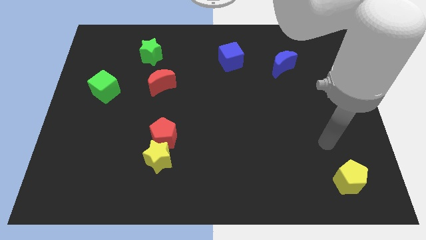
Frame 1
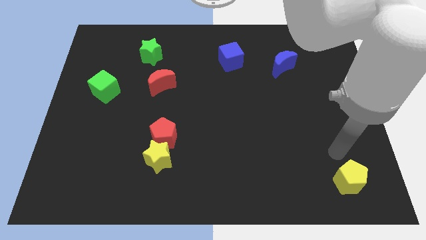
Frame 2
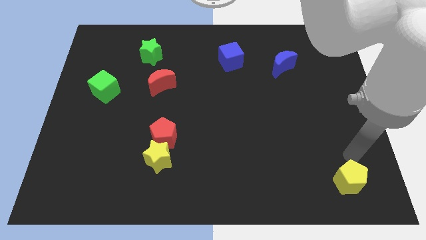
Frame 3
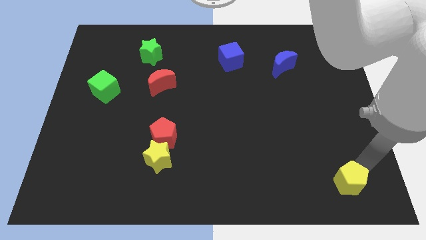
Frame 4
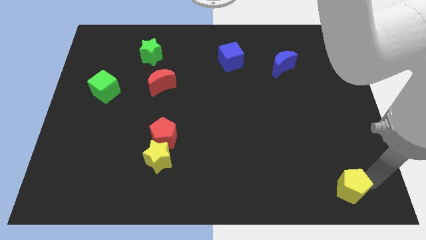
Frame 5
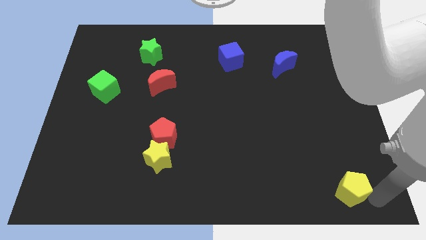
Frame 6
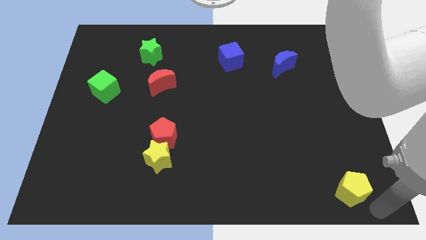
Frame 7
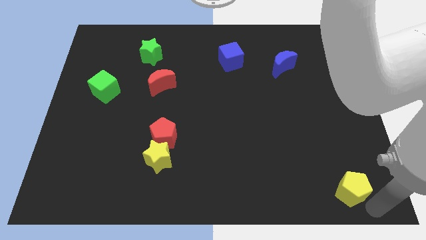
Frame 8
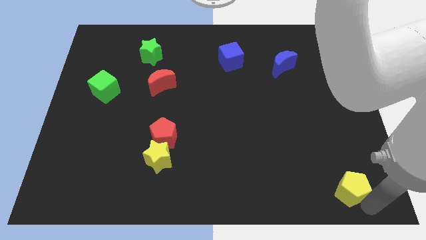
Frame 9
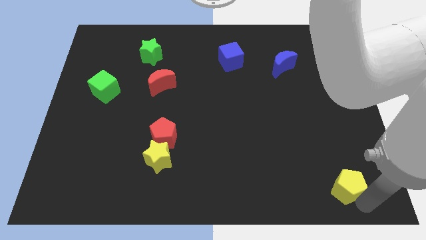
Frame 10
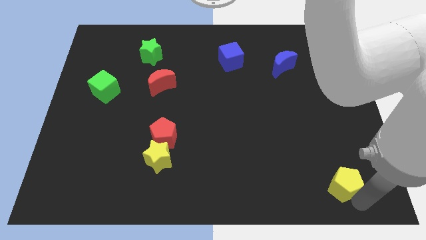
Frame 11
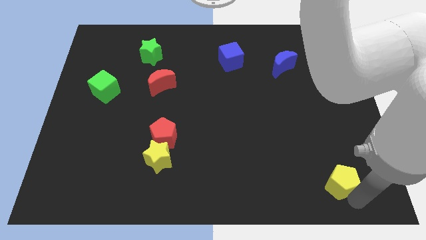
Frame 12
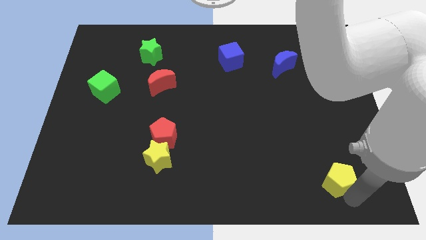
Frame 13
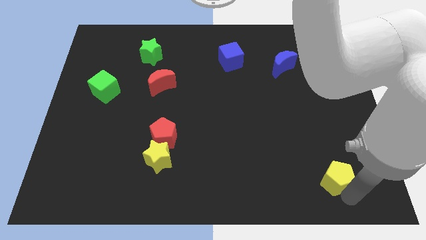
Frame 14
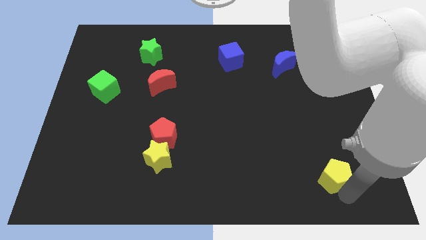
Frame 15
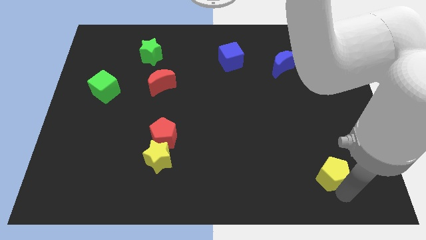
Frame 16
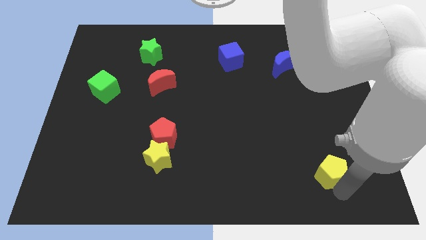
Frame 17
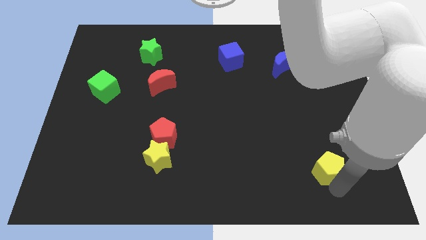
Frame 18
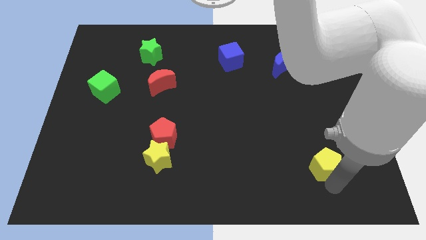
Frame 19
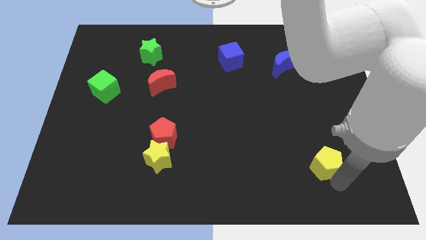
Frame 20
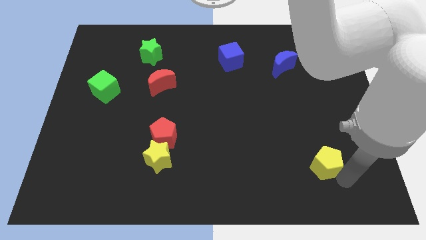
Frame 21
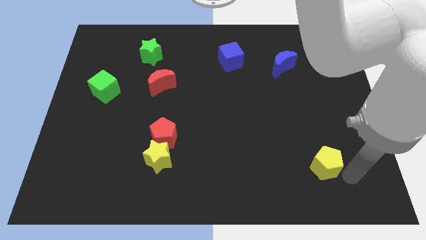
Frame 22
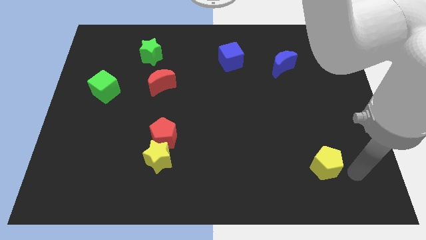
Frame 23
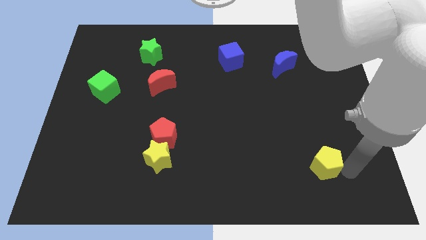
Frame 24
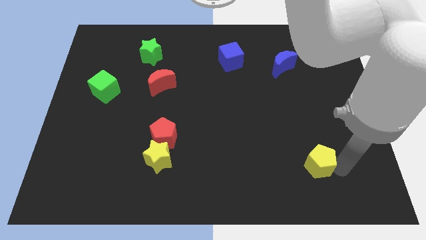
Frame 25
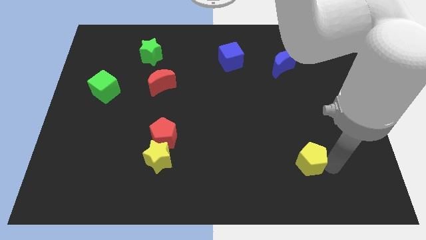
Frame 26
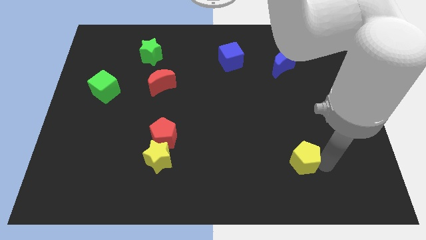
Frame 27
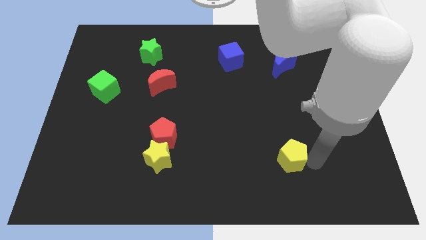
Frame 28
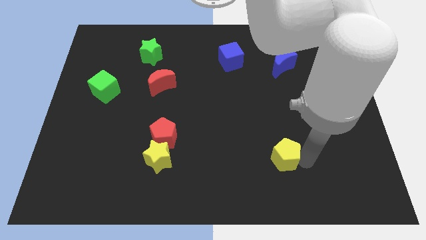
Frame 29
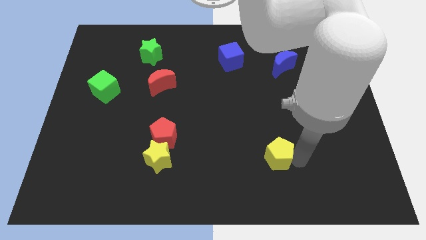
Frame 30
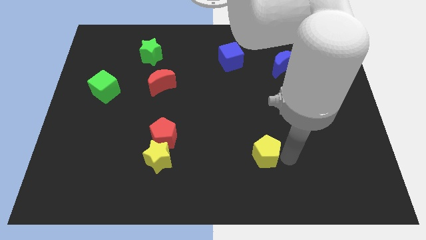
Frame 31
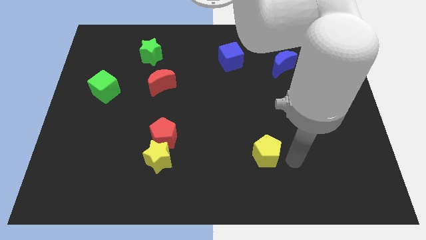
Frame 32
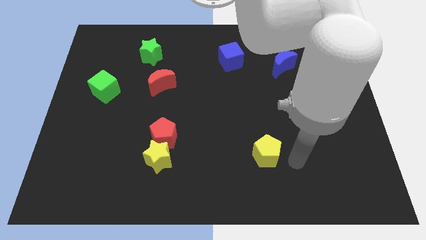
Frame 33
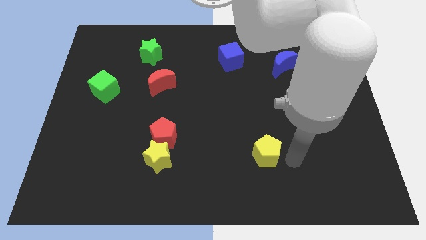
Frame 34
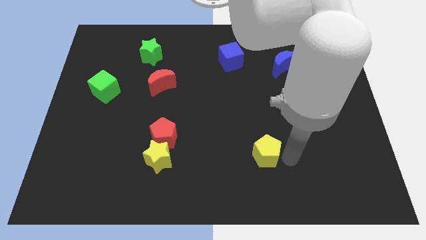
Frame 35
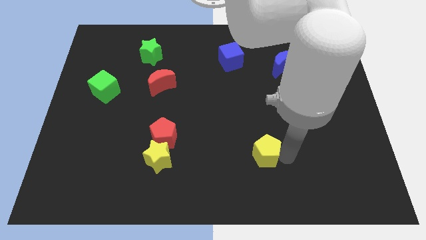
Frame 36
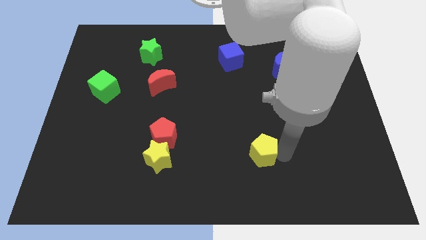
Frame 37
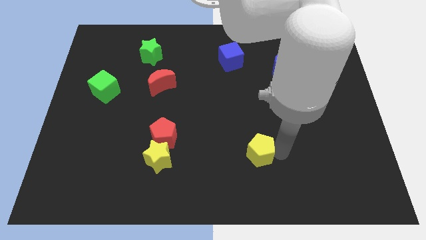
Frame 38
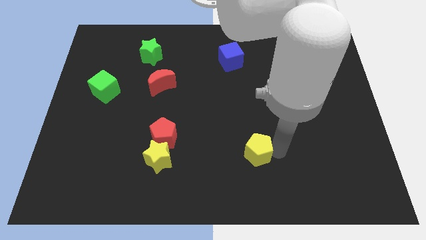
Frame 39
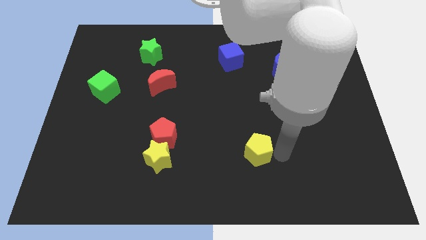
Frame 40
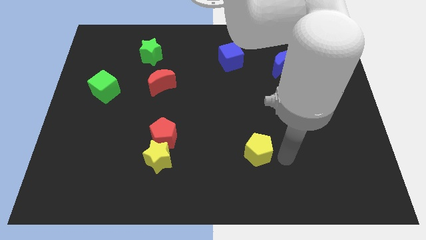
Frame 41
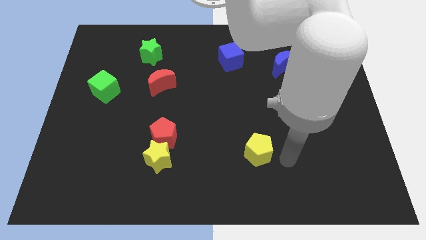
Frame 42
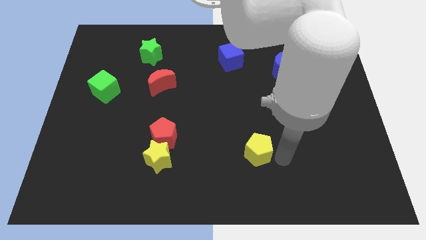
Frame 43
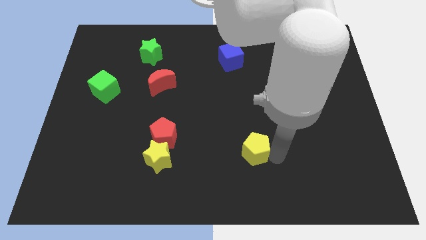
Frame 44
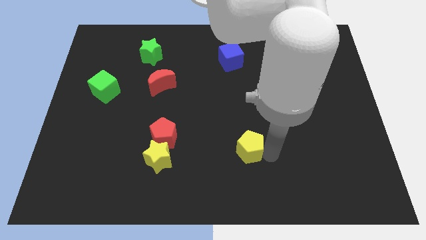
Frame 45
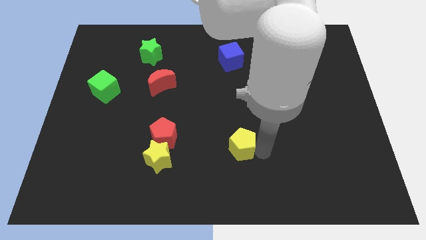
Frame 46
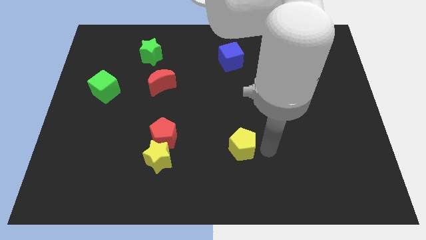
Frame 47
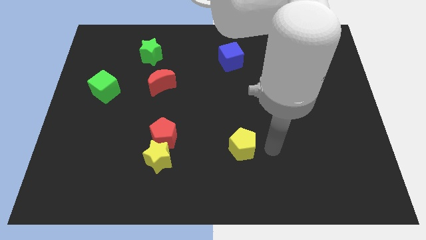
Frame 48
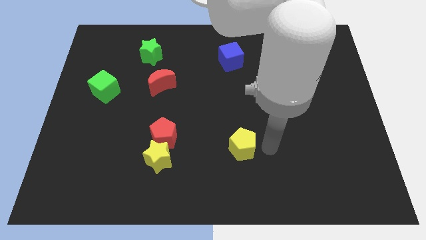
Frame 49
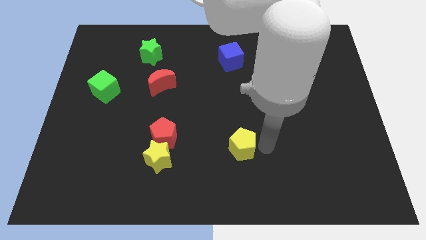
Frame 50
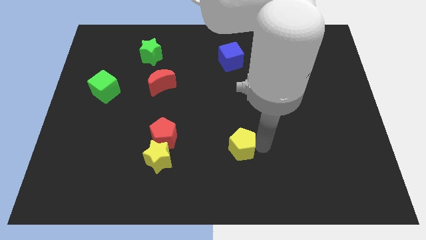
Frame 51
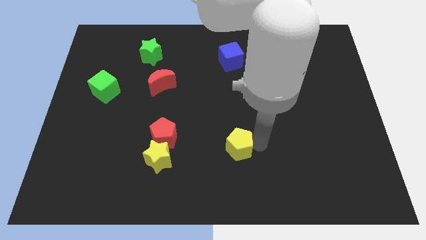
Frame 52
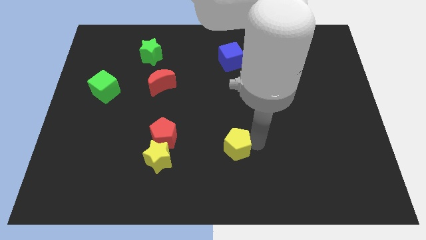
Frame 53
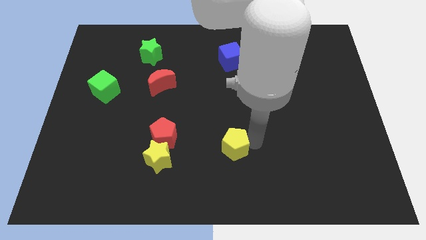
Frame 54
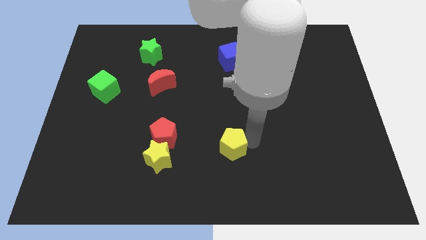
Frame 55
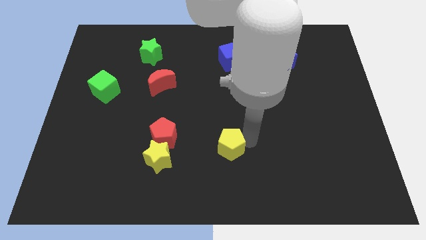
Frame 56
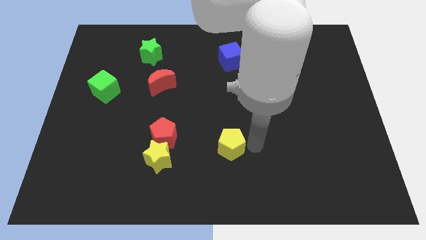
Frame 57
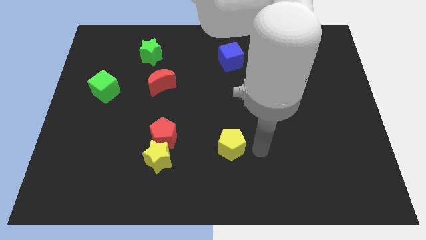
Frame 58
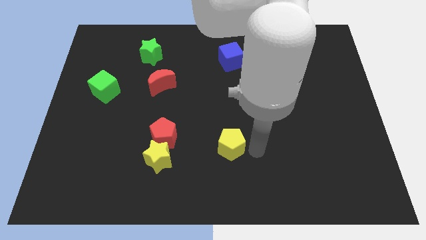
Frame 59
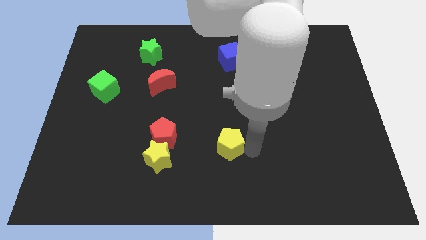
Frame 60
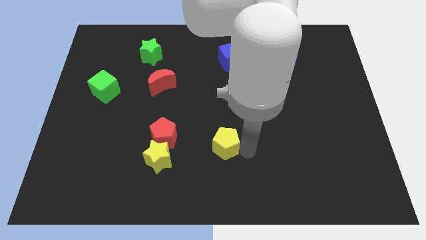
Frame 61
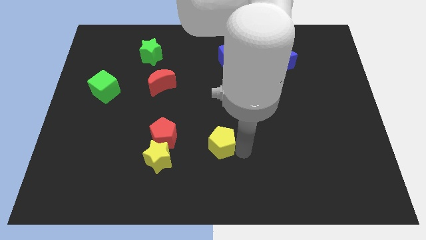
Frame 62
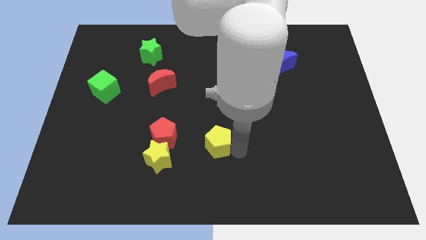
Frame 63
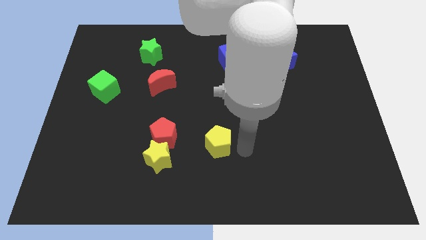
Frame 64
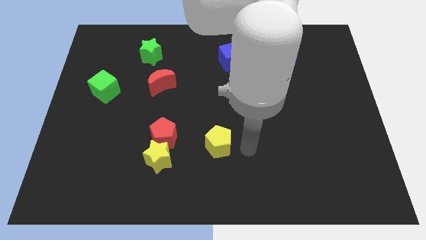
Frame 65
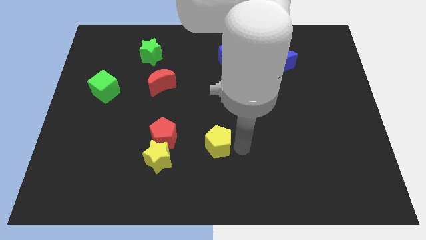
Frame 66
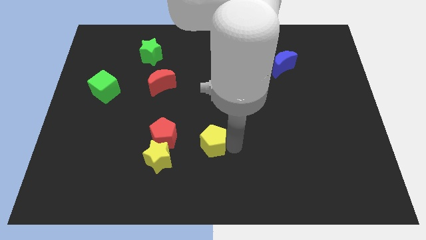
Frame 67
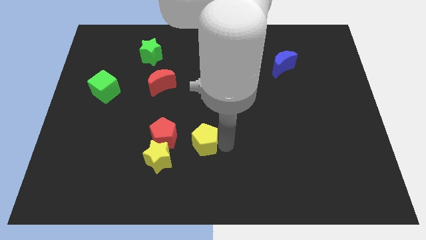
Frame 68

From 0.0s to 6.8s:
slide the yellow pentagon to the top right of the yellow star

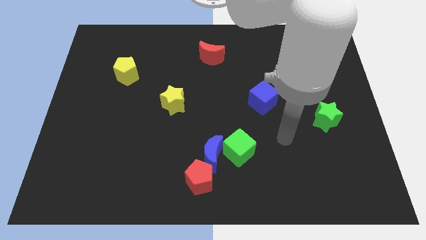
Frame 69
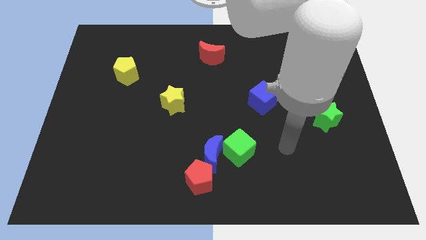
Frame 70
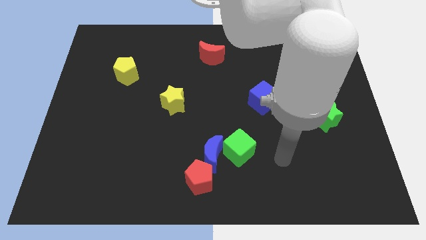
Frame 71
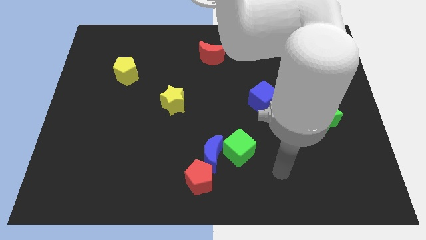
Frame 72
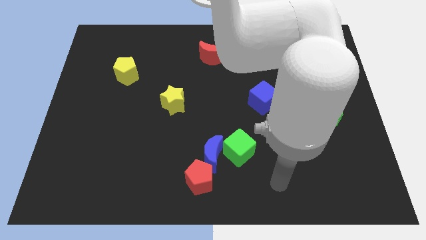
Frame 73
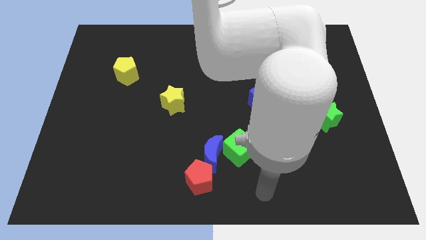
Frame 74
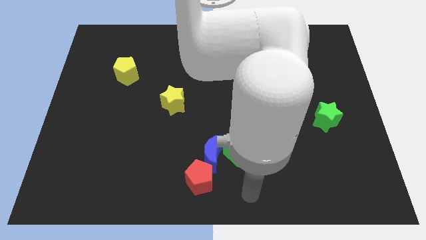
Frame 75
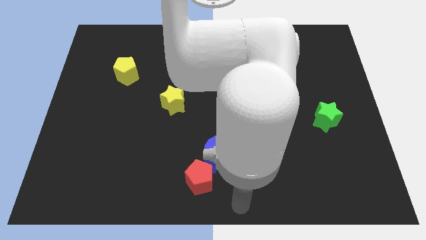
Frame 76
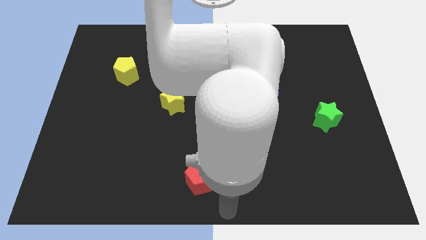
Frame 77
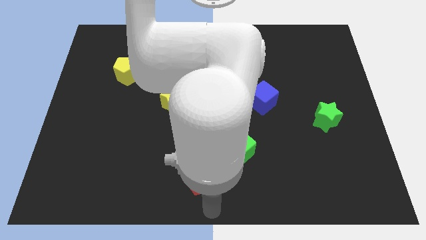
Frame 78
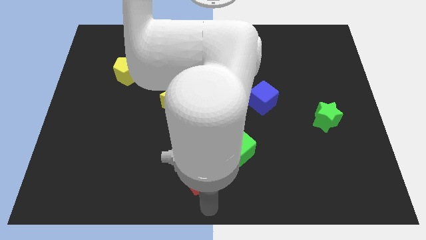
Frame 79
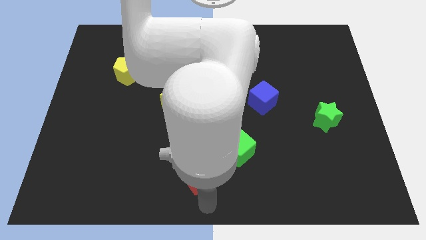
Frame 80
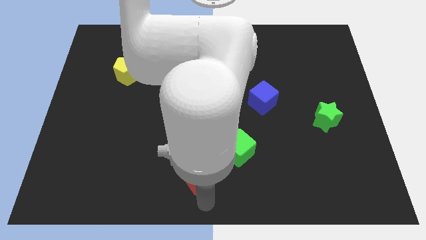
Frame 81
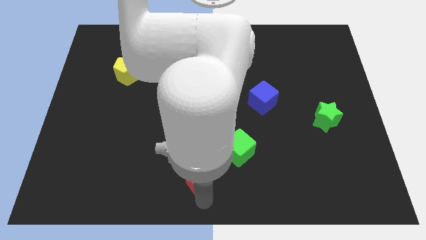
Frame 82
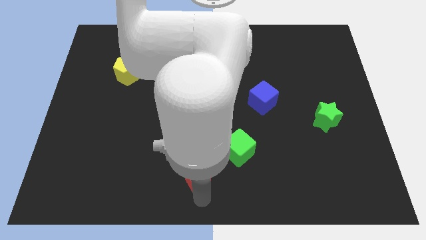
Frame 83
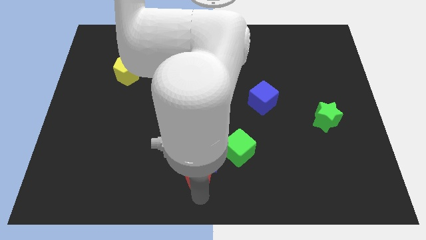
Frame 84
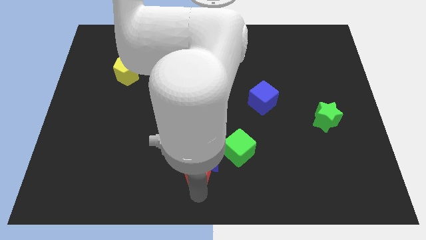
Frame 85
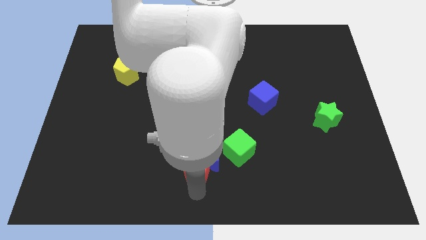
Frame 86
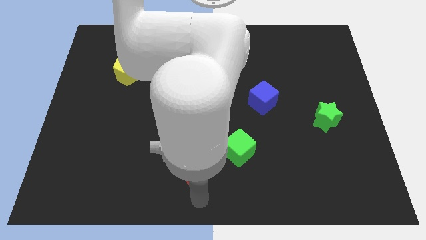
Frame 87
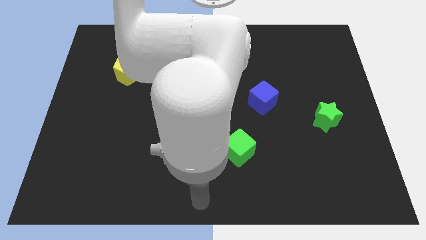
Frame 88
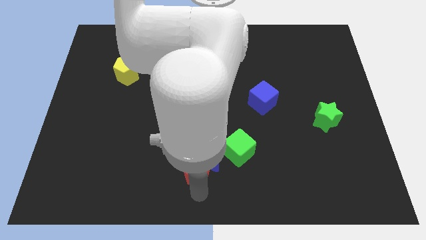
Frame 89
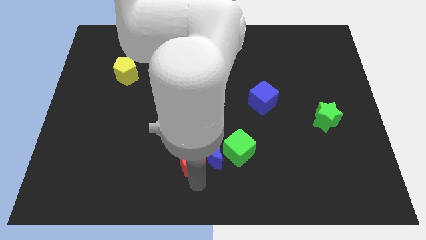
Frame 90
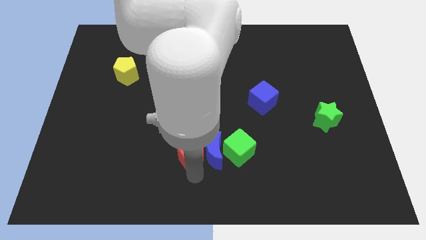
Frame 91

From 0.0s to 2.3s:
push the red pentagon to the top left side of the blue moon
